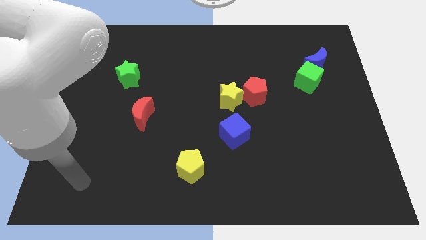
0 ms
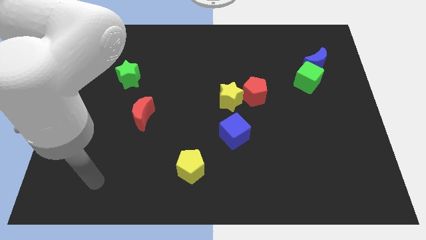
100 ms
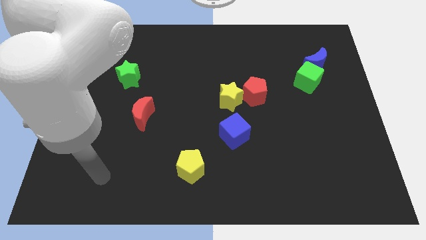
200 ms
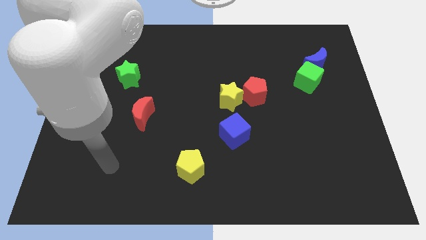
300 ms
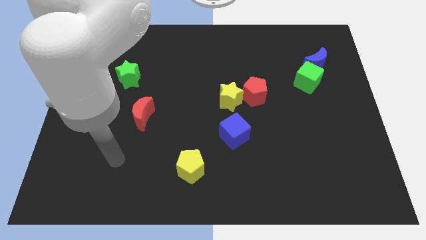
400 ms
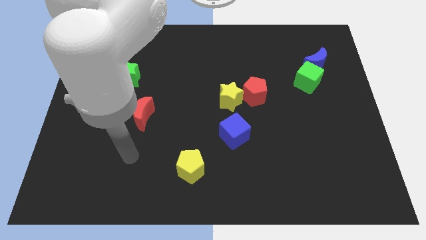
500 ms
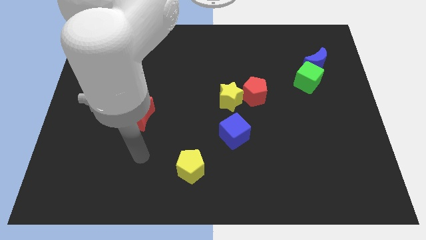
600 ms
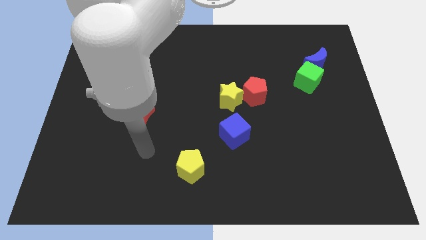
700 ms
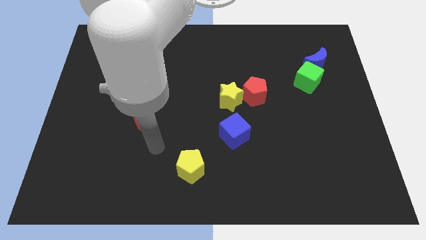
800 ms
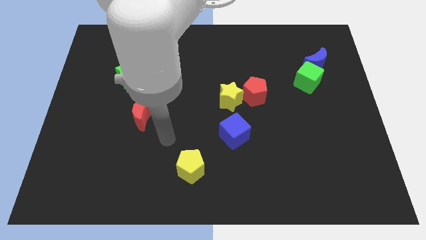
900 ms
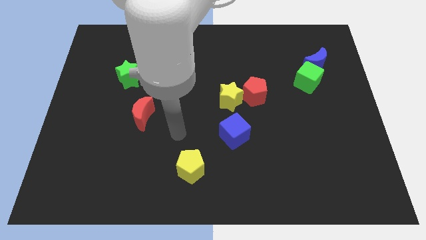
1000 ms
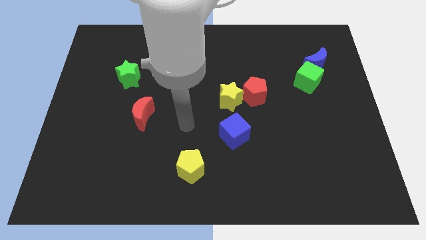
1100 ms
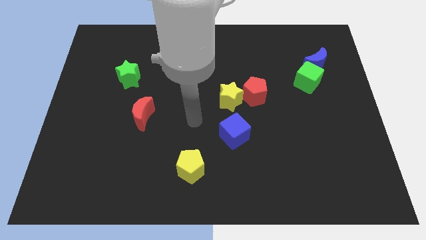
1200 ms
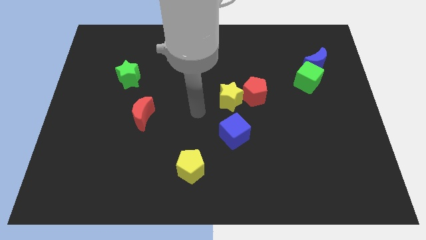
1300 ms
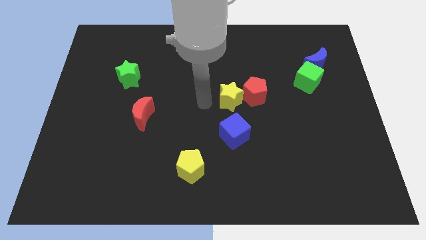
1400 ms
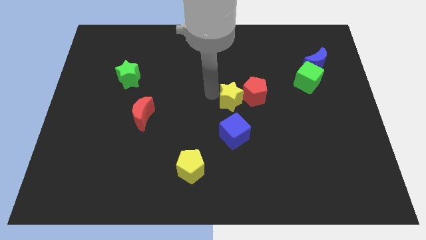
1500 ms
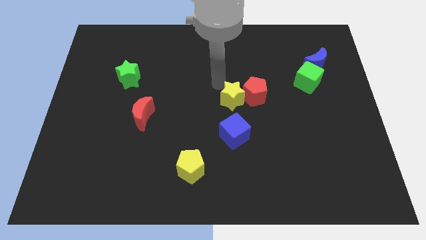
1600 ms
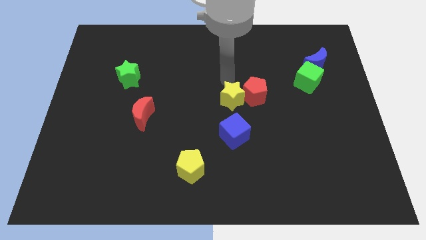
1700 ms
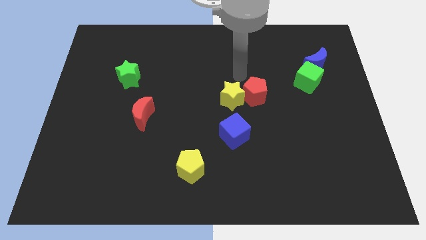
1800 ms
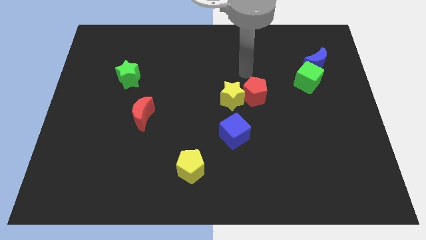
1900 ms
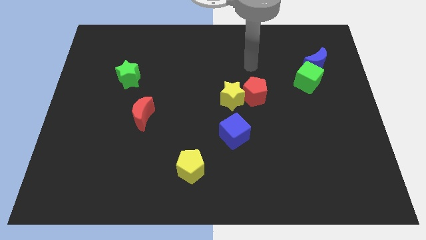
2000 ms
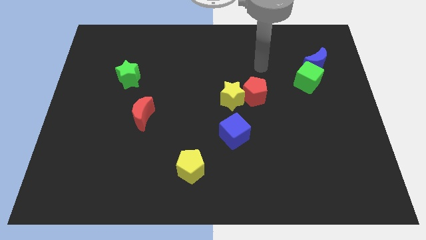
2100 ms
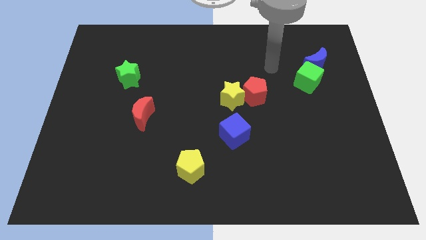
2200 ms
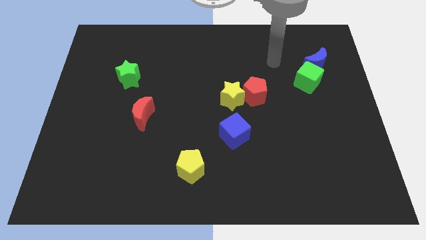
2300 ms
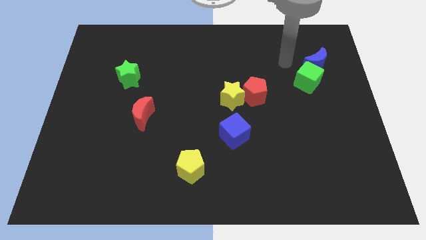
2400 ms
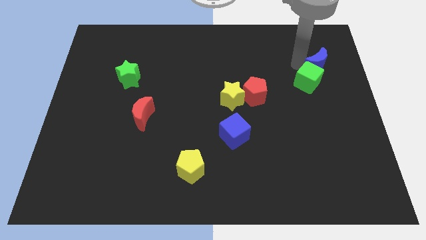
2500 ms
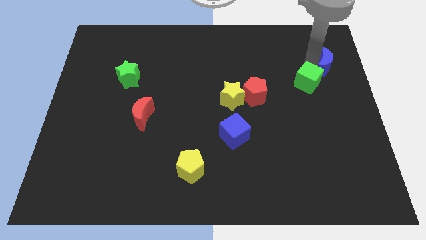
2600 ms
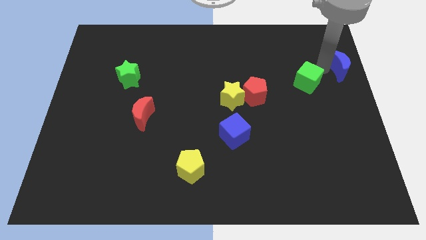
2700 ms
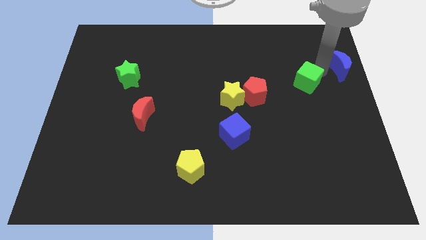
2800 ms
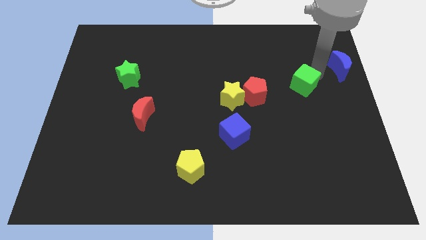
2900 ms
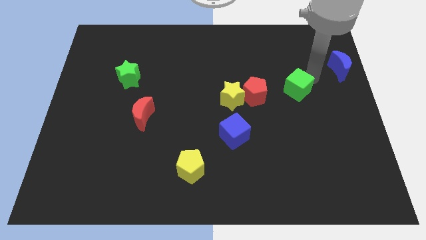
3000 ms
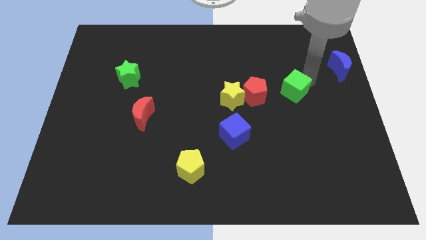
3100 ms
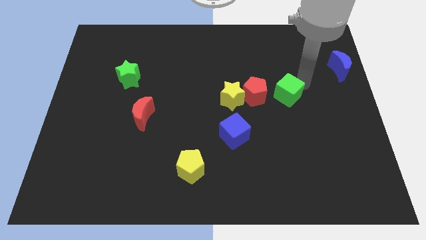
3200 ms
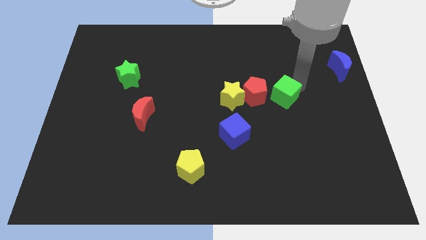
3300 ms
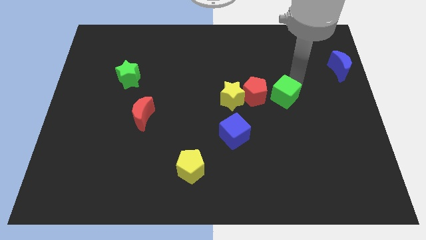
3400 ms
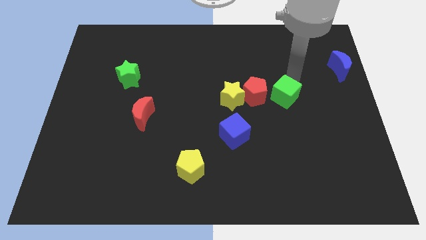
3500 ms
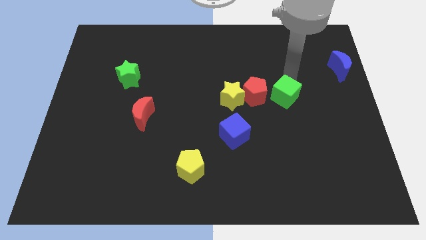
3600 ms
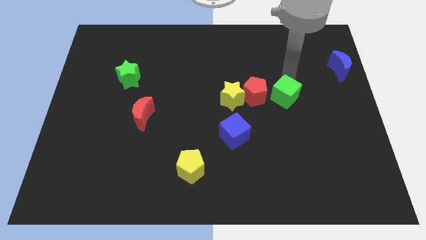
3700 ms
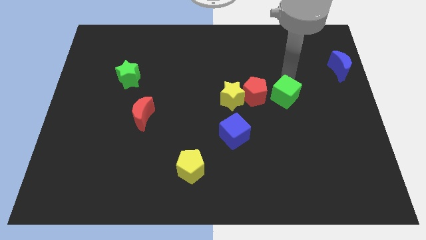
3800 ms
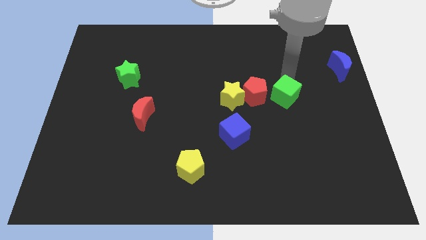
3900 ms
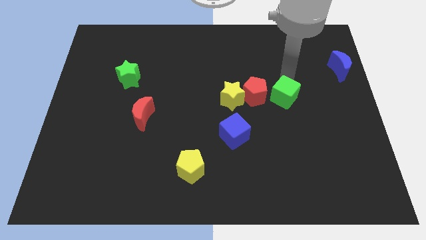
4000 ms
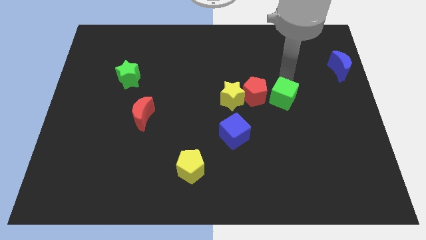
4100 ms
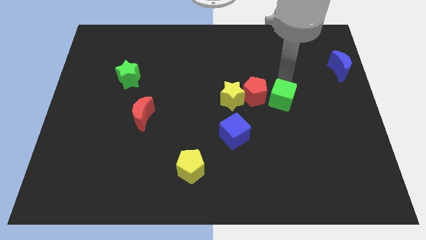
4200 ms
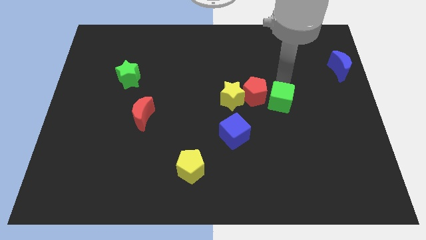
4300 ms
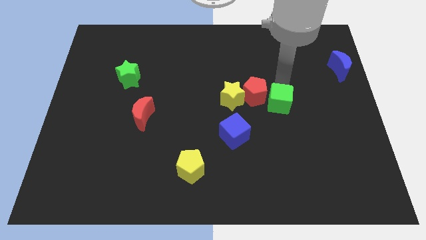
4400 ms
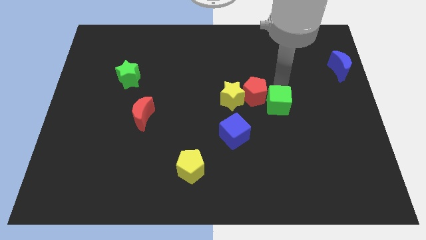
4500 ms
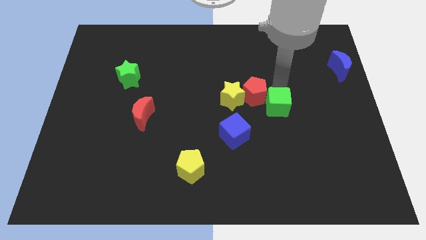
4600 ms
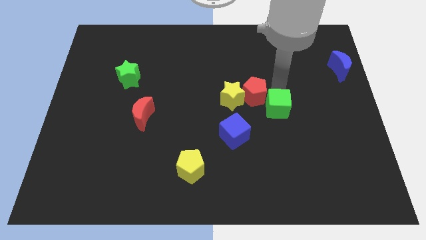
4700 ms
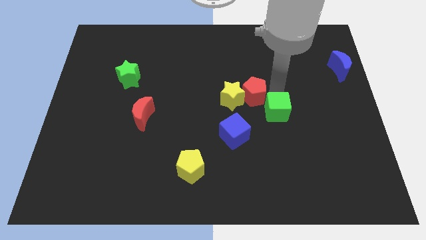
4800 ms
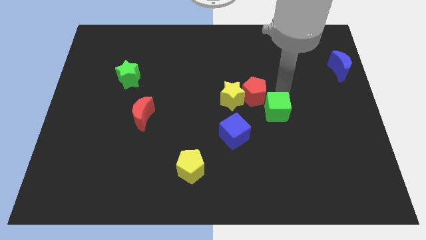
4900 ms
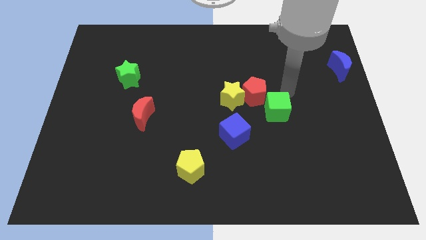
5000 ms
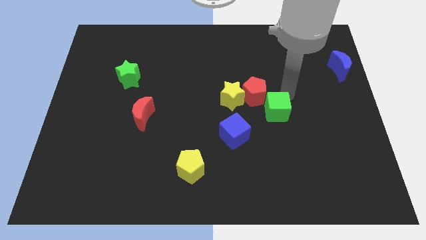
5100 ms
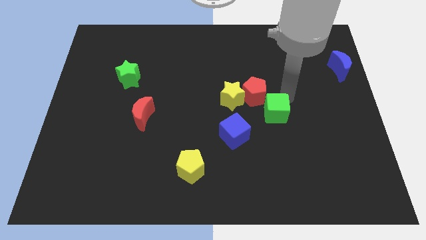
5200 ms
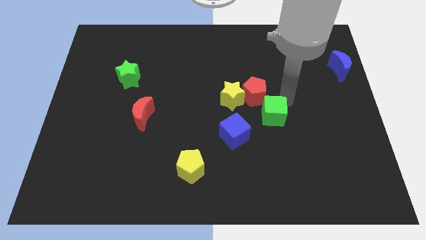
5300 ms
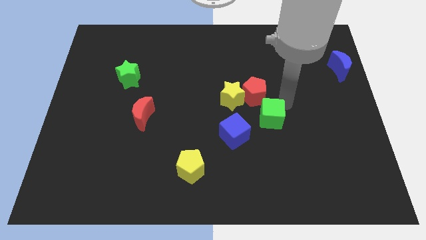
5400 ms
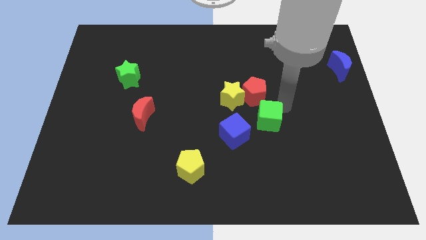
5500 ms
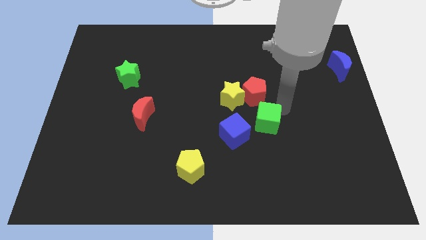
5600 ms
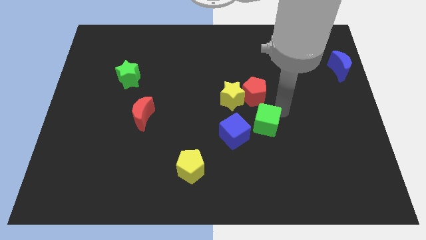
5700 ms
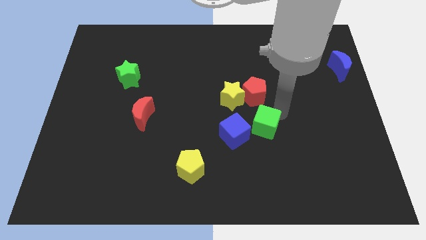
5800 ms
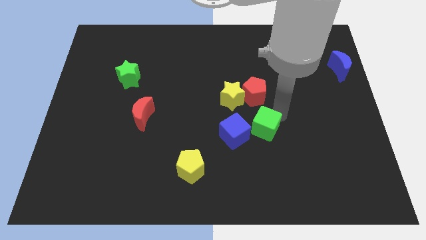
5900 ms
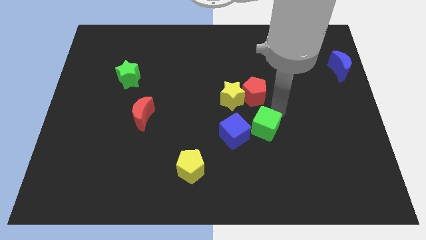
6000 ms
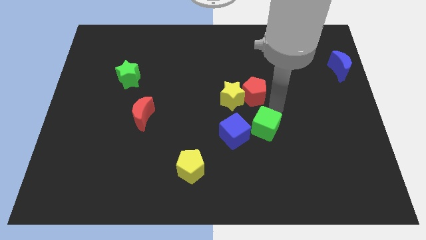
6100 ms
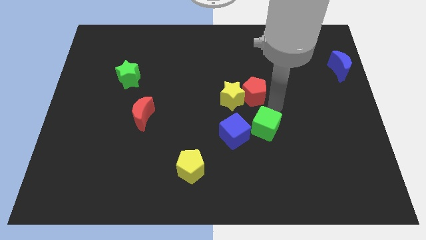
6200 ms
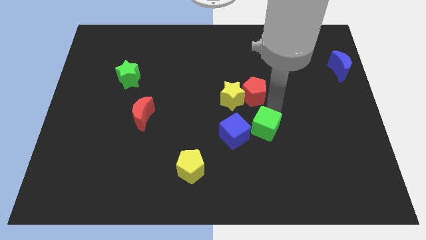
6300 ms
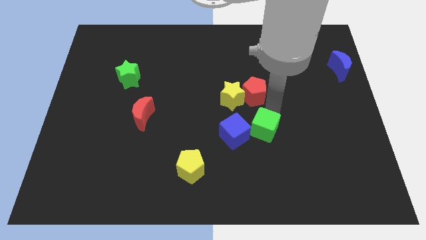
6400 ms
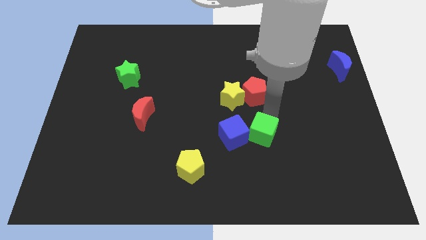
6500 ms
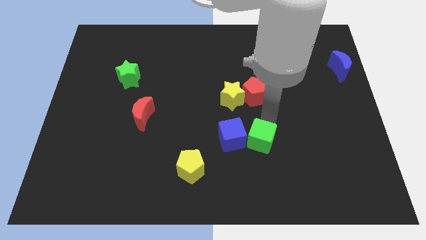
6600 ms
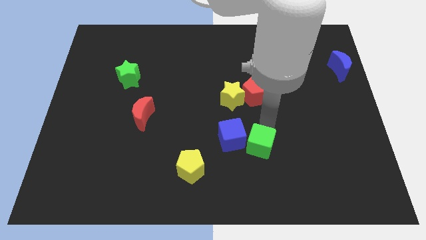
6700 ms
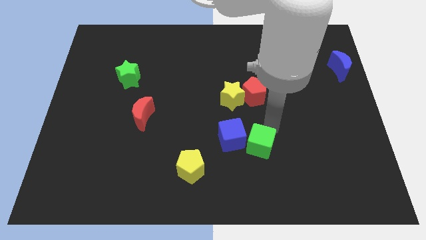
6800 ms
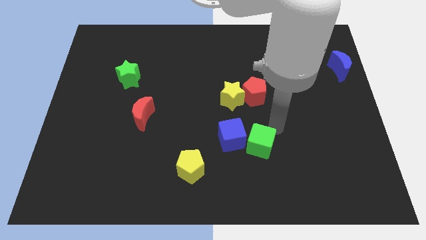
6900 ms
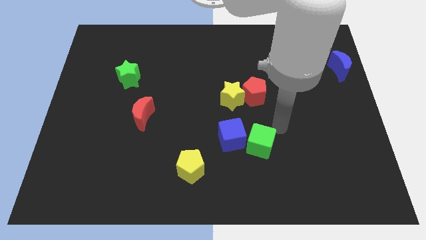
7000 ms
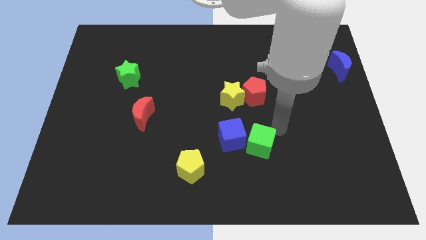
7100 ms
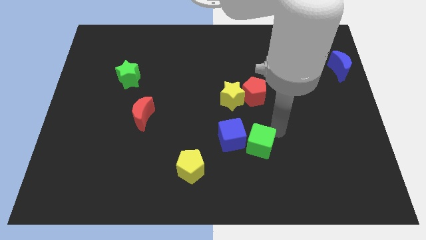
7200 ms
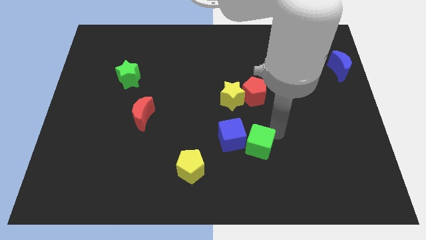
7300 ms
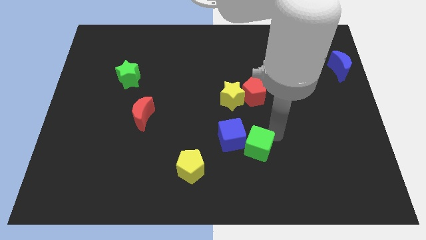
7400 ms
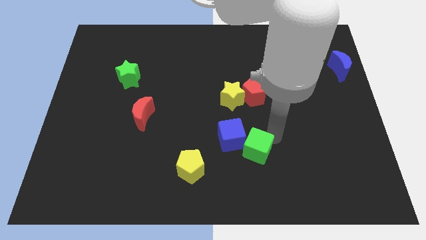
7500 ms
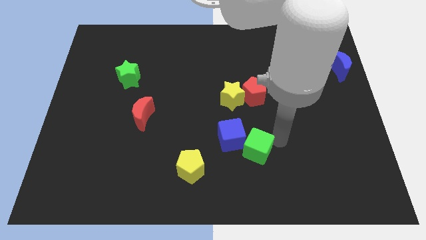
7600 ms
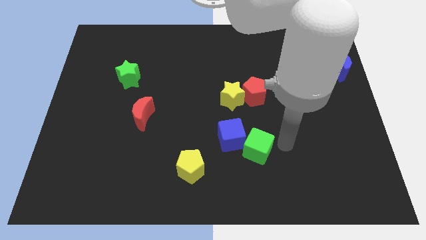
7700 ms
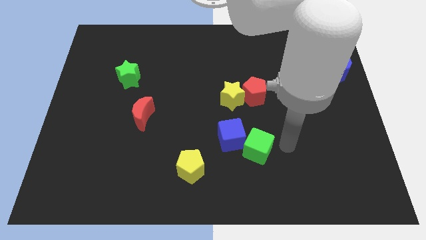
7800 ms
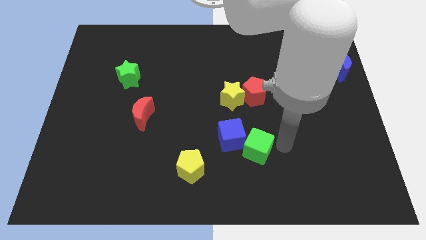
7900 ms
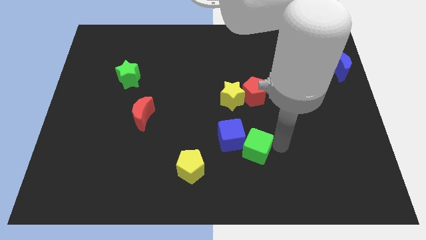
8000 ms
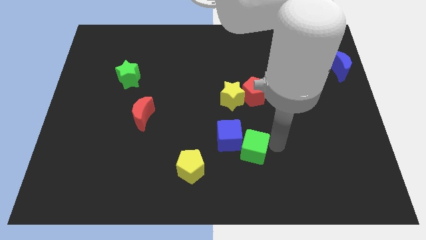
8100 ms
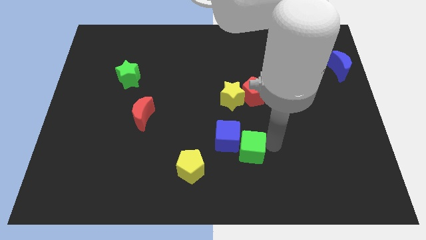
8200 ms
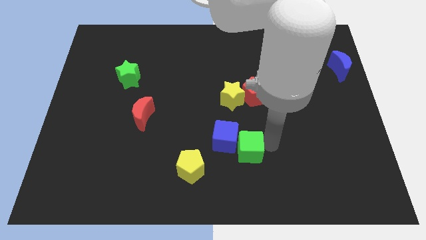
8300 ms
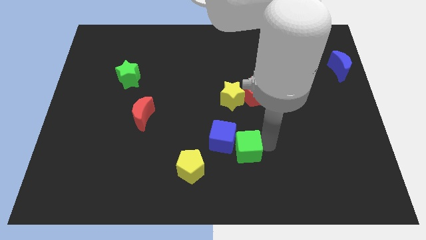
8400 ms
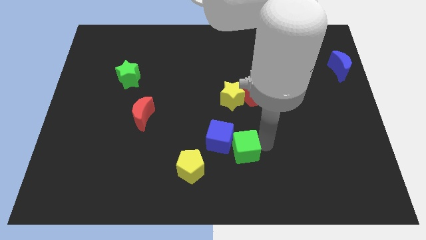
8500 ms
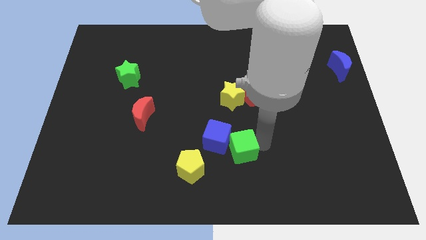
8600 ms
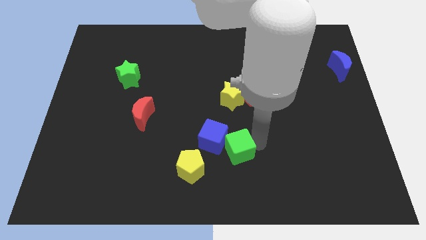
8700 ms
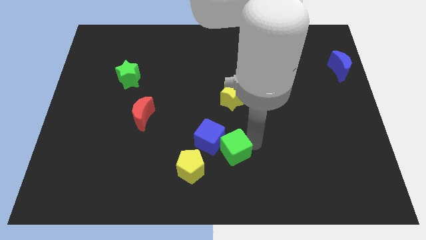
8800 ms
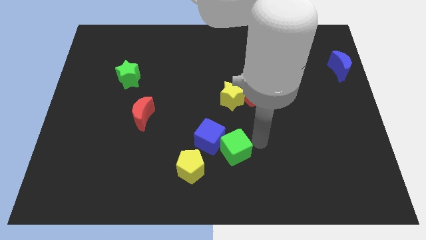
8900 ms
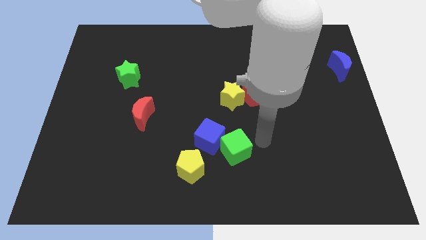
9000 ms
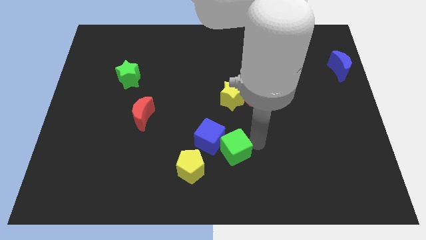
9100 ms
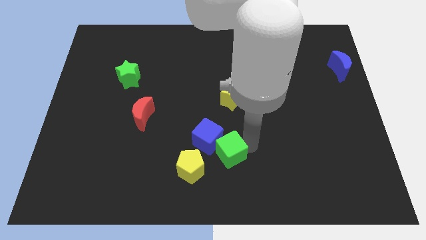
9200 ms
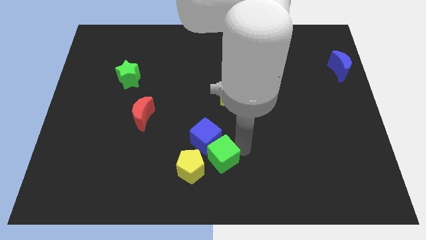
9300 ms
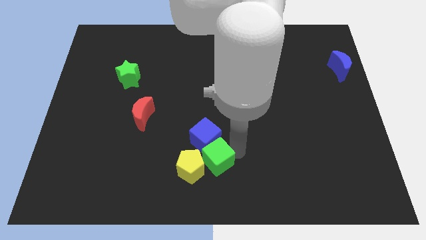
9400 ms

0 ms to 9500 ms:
push the green cube close to the yellow pentagon
